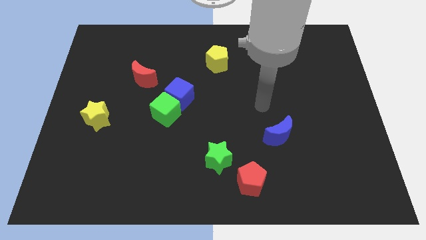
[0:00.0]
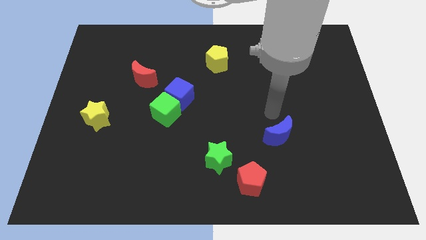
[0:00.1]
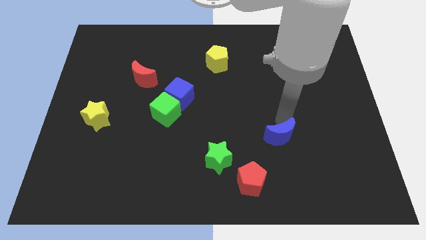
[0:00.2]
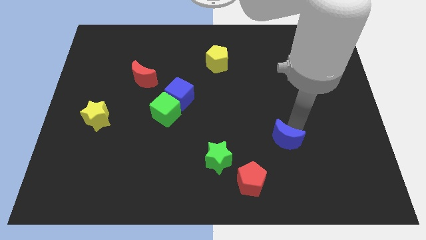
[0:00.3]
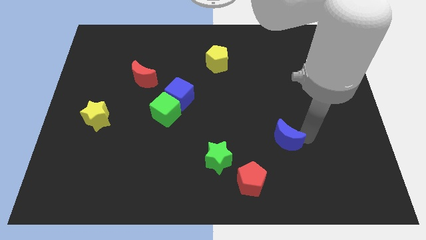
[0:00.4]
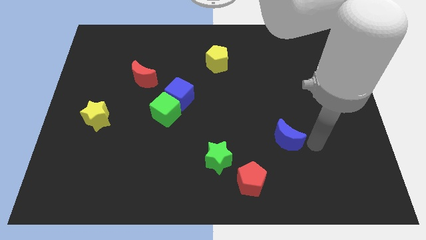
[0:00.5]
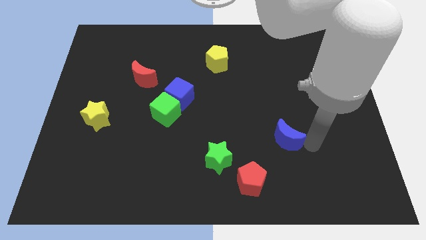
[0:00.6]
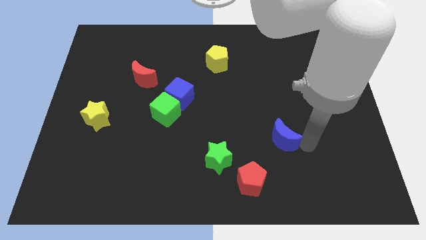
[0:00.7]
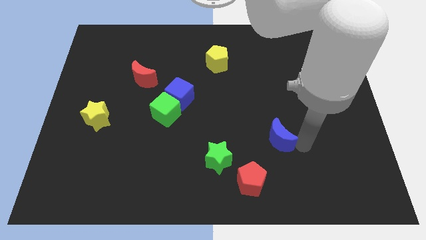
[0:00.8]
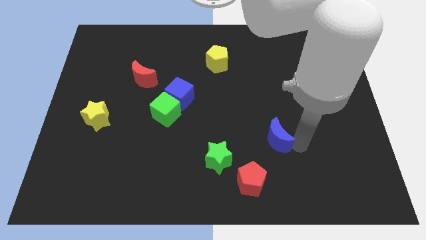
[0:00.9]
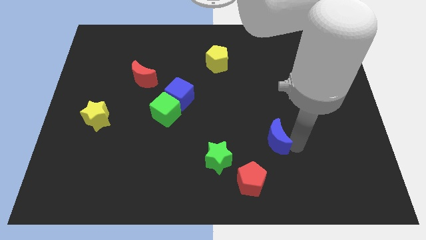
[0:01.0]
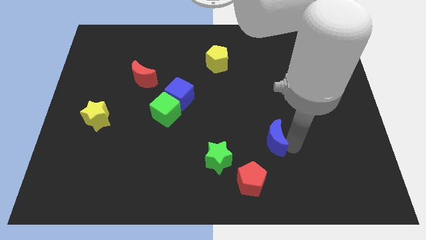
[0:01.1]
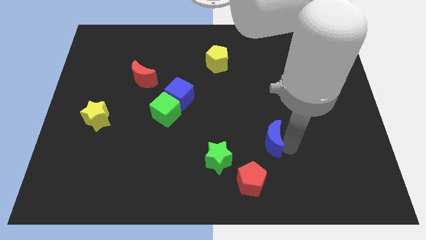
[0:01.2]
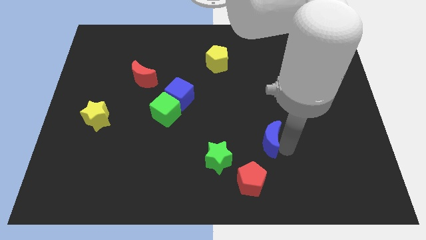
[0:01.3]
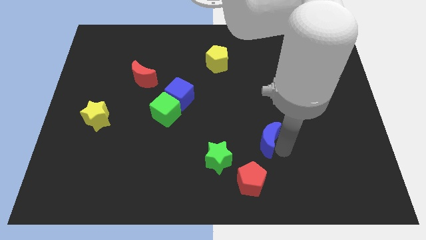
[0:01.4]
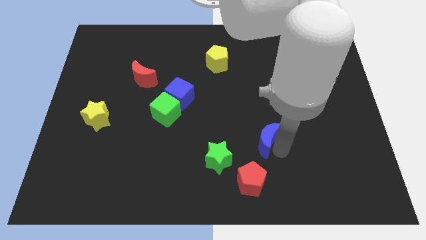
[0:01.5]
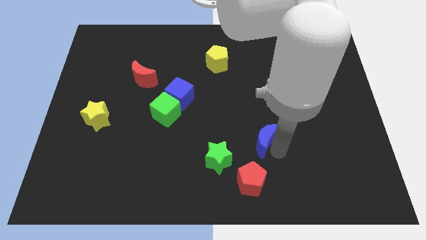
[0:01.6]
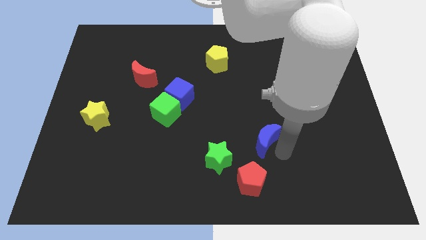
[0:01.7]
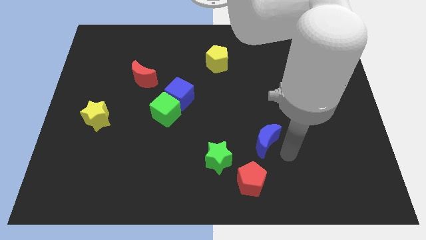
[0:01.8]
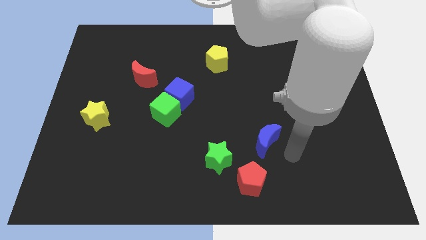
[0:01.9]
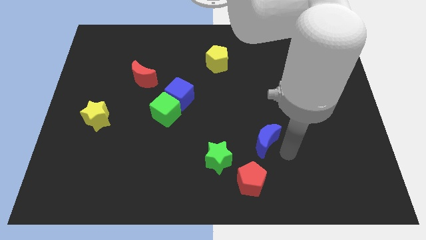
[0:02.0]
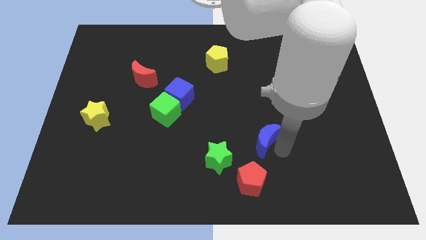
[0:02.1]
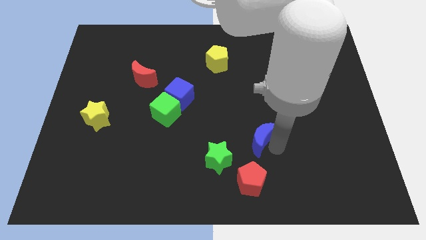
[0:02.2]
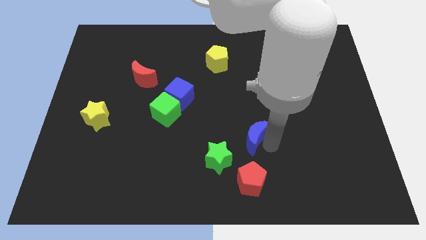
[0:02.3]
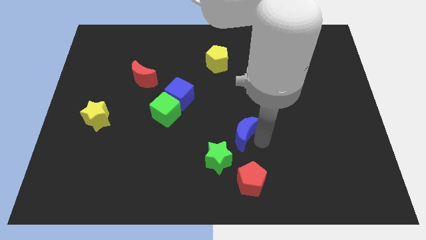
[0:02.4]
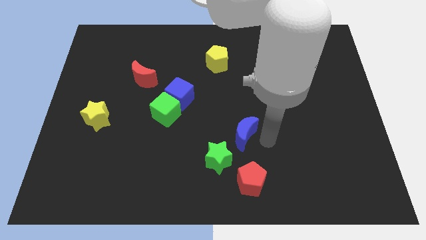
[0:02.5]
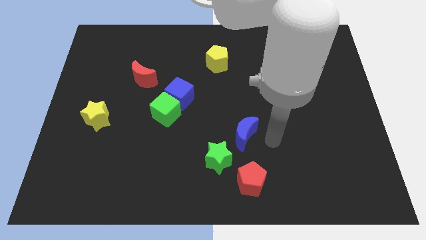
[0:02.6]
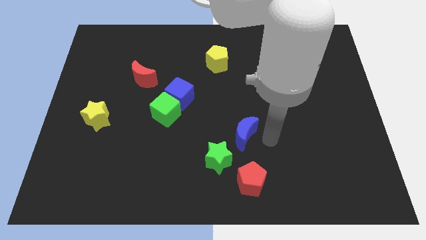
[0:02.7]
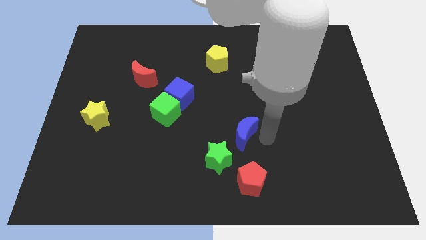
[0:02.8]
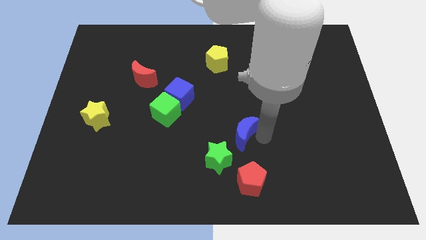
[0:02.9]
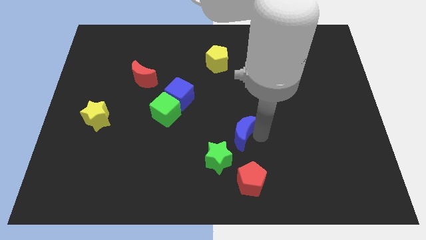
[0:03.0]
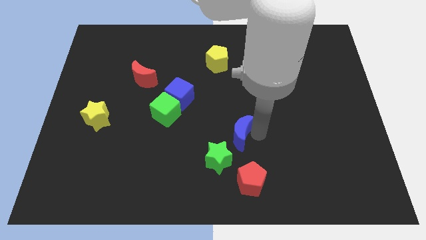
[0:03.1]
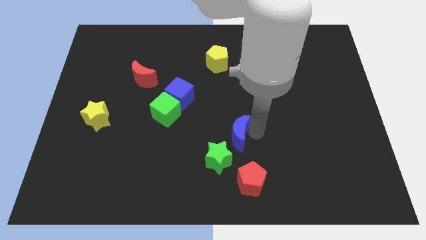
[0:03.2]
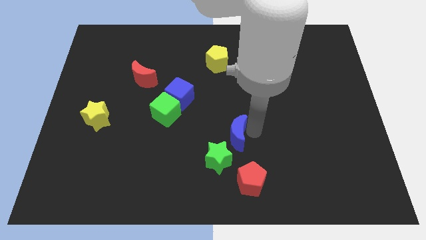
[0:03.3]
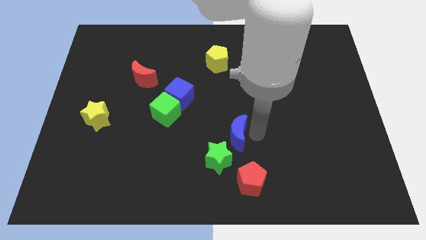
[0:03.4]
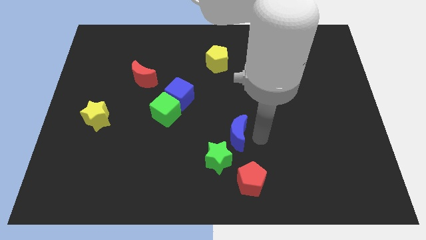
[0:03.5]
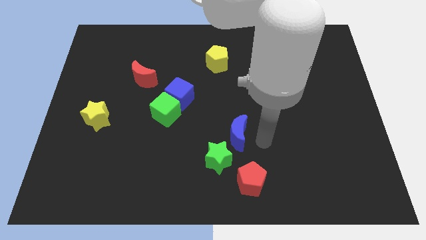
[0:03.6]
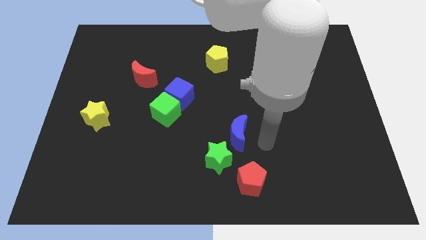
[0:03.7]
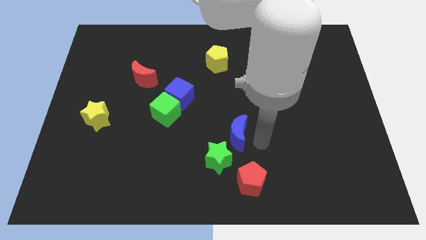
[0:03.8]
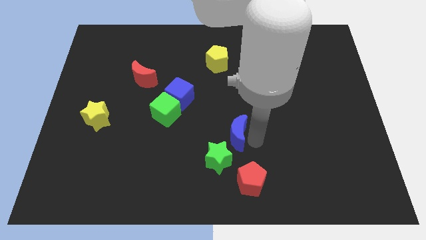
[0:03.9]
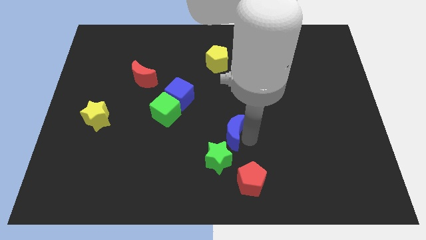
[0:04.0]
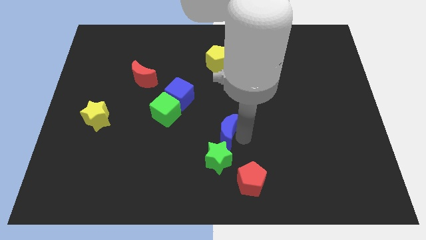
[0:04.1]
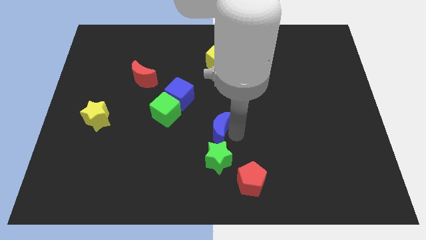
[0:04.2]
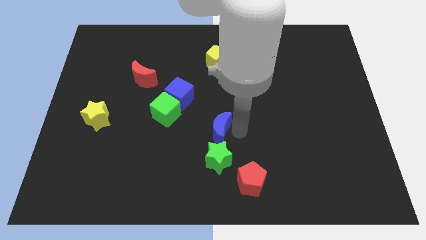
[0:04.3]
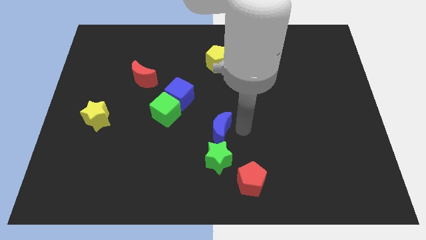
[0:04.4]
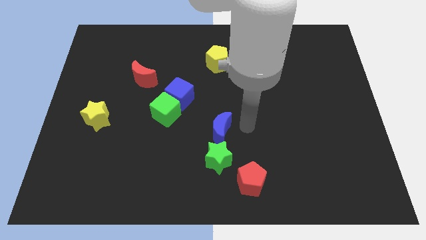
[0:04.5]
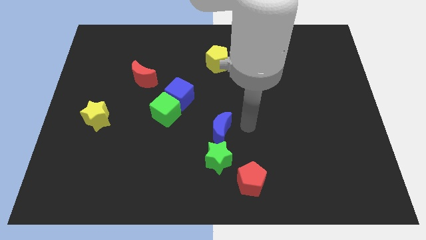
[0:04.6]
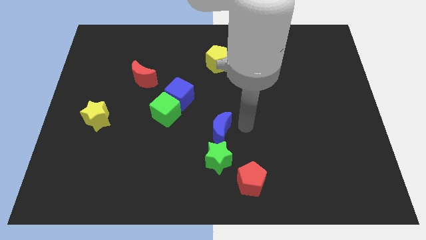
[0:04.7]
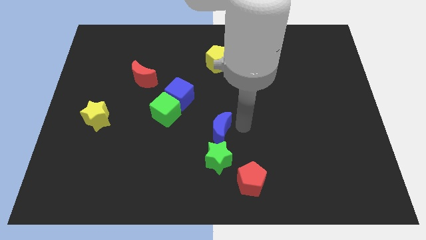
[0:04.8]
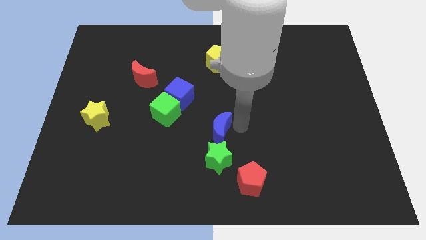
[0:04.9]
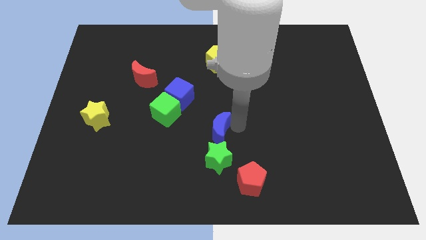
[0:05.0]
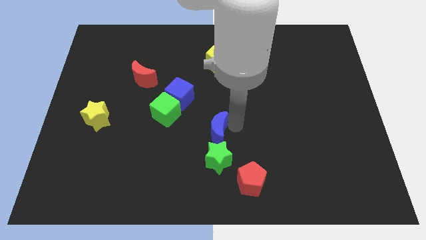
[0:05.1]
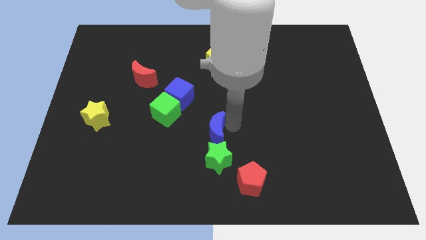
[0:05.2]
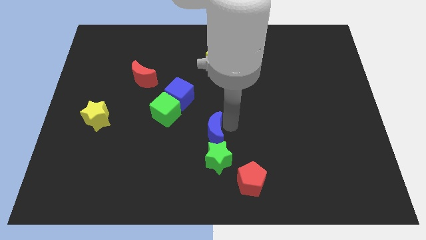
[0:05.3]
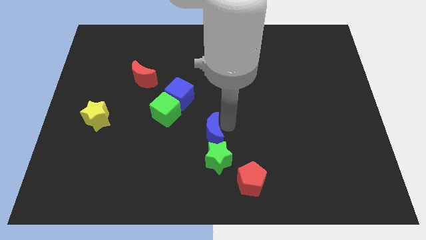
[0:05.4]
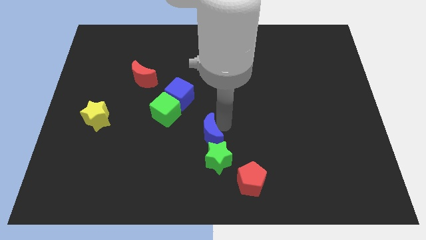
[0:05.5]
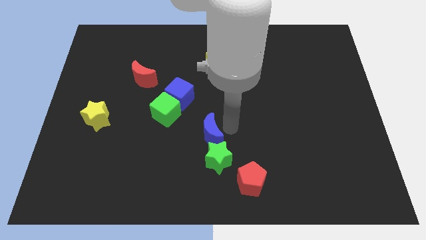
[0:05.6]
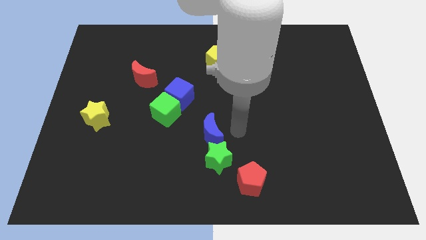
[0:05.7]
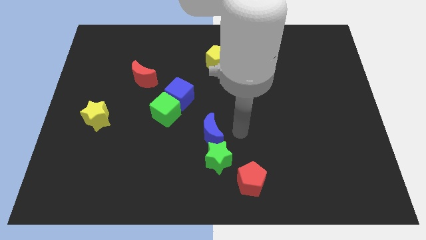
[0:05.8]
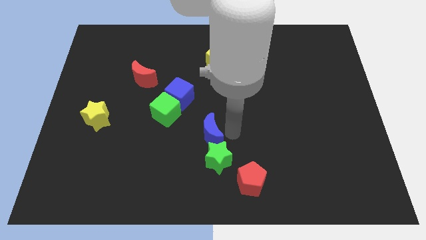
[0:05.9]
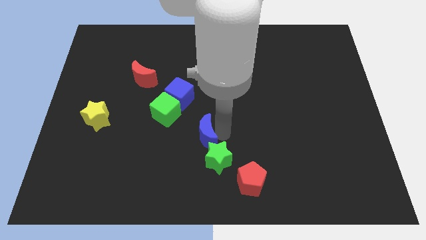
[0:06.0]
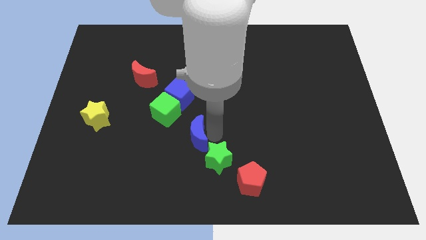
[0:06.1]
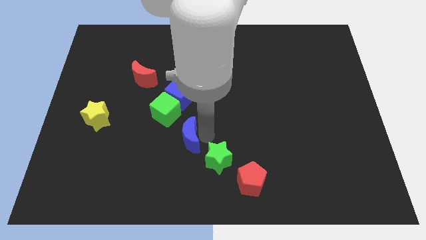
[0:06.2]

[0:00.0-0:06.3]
push the blue moon to the left

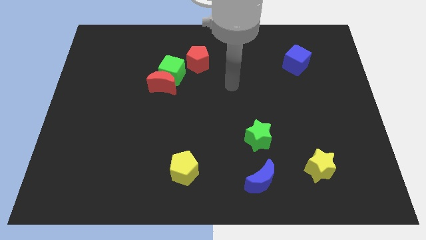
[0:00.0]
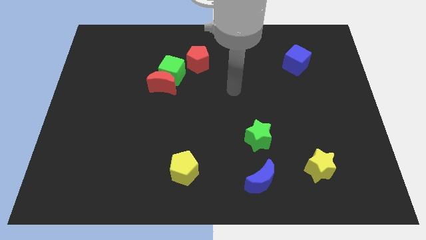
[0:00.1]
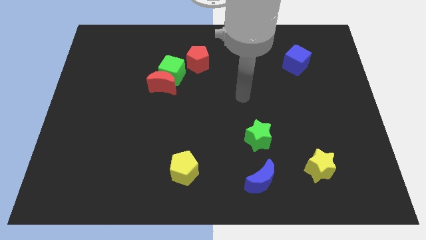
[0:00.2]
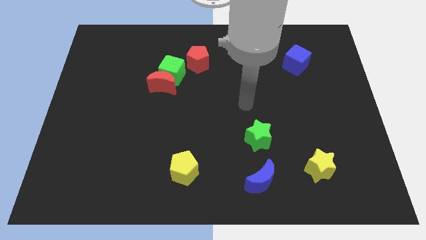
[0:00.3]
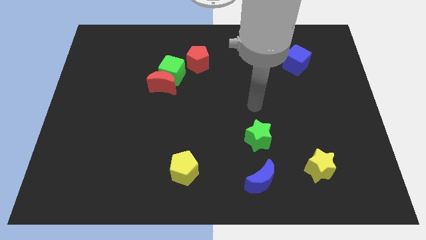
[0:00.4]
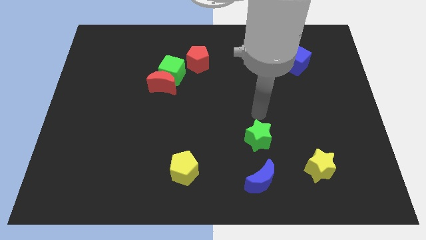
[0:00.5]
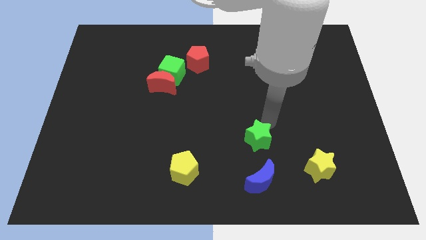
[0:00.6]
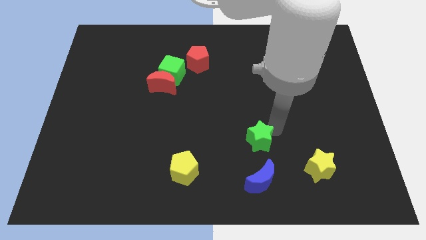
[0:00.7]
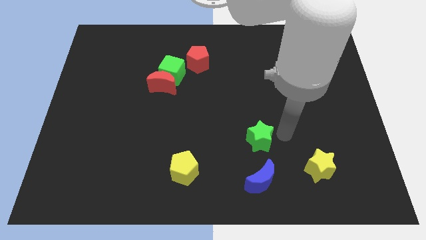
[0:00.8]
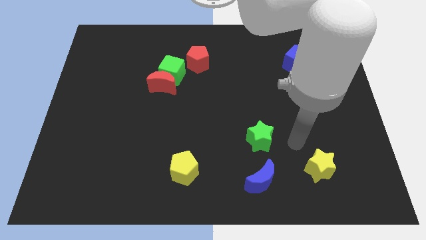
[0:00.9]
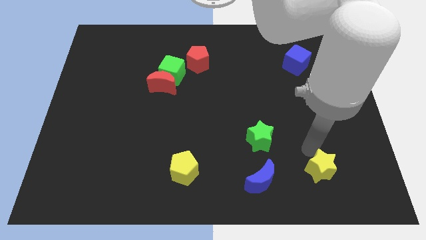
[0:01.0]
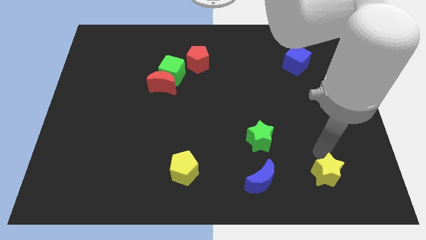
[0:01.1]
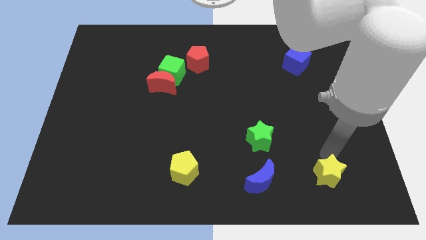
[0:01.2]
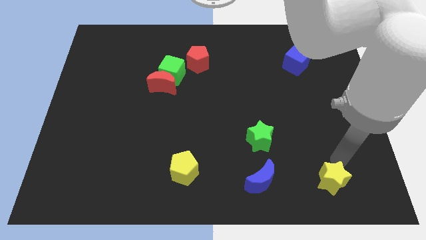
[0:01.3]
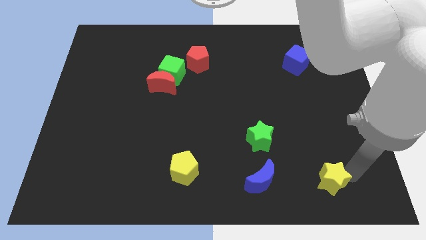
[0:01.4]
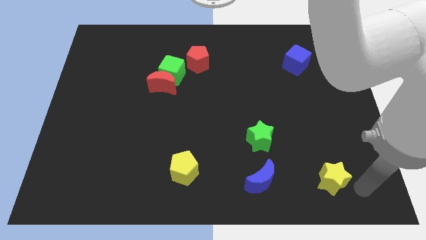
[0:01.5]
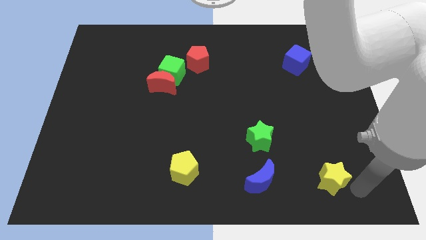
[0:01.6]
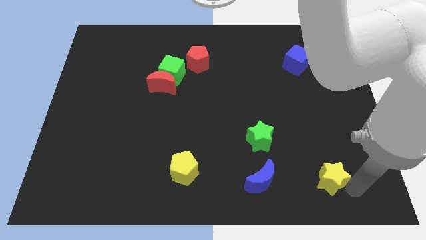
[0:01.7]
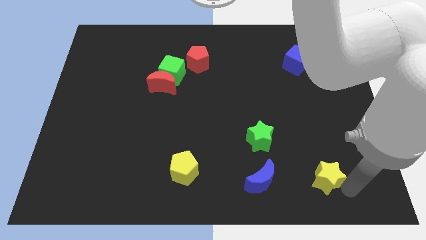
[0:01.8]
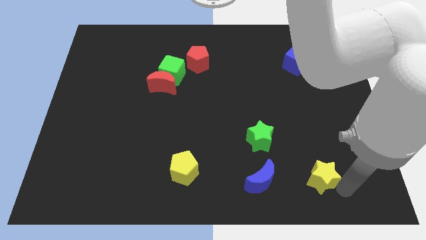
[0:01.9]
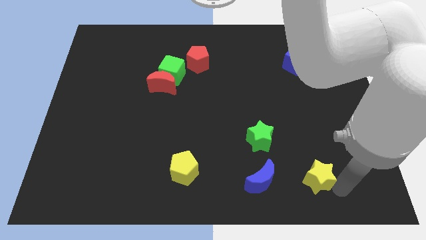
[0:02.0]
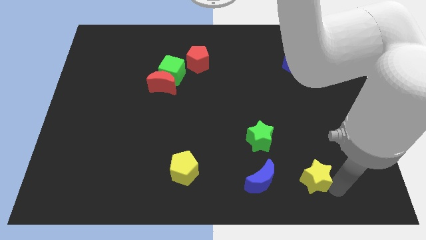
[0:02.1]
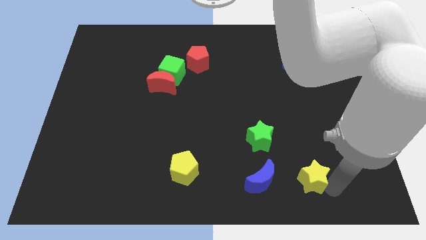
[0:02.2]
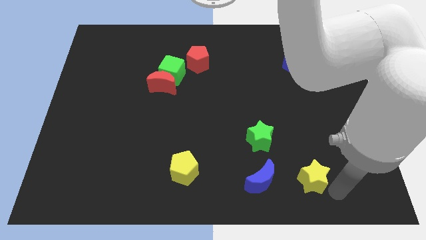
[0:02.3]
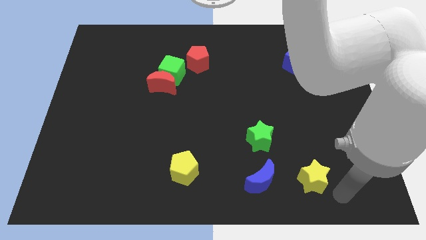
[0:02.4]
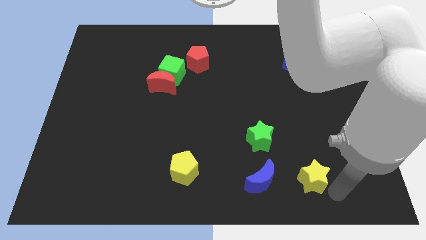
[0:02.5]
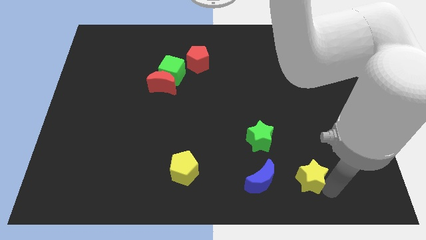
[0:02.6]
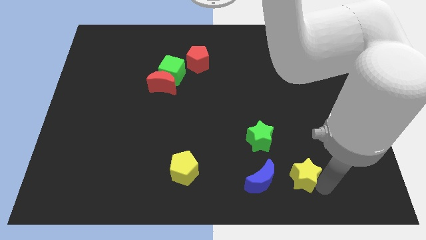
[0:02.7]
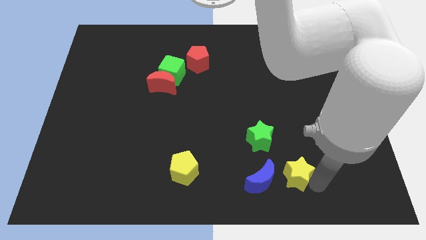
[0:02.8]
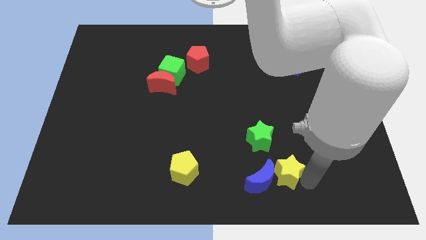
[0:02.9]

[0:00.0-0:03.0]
move the yellow star left somewhat
